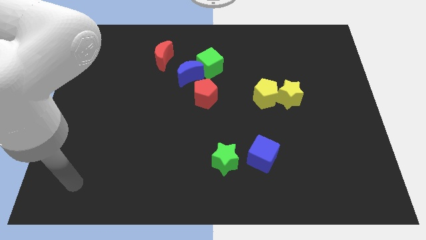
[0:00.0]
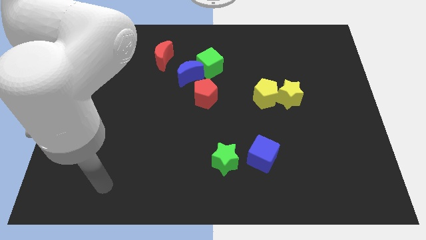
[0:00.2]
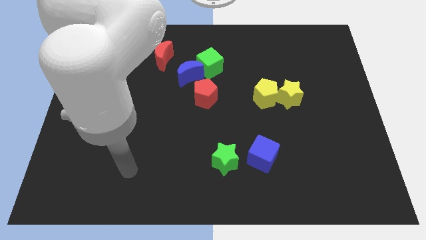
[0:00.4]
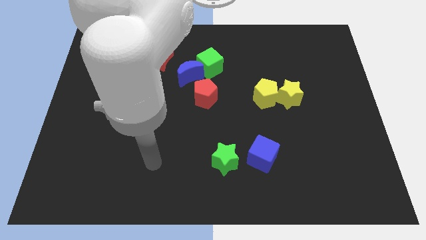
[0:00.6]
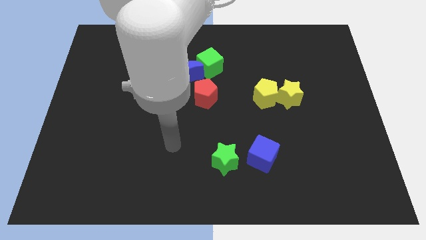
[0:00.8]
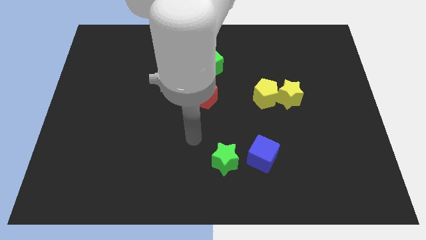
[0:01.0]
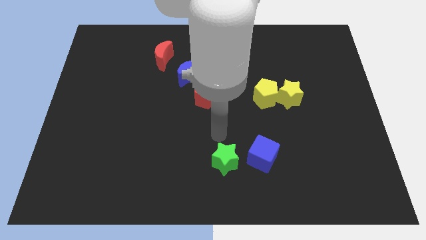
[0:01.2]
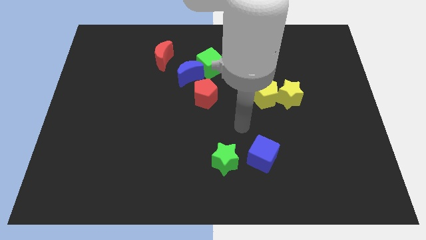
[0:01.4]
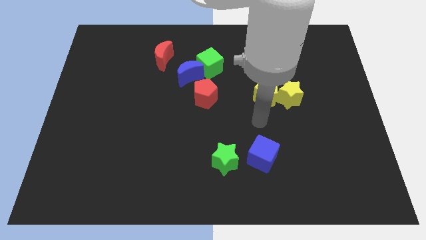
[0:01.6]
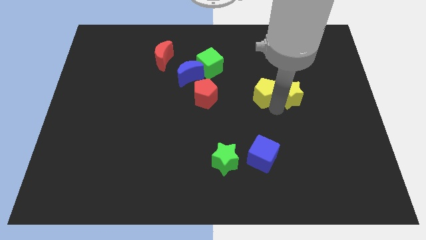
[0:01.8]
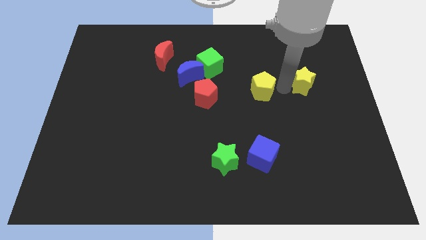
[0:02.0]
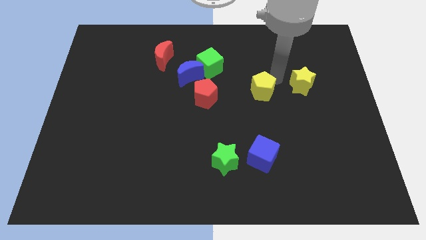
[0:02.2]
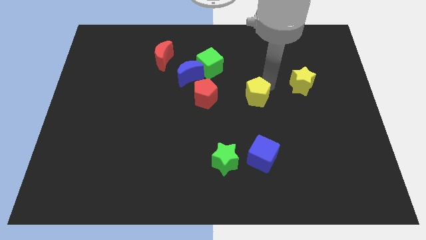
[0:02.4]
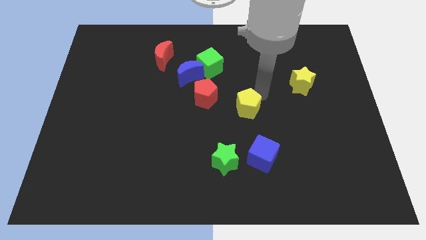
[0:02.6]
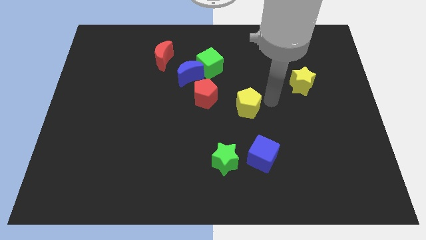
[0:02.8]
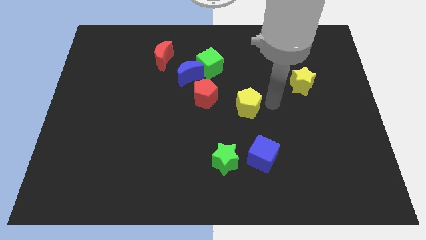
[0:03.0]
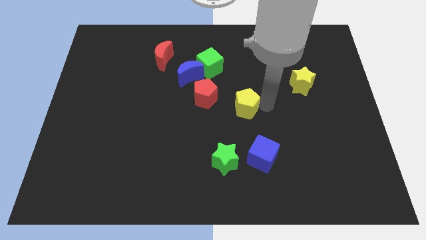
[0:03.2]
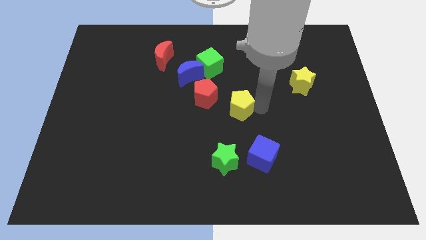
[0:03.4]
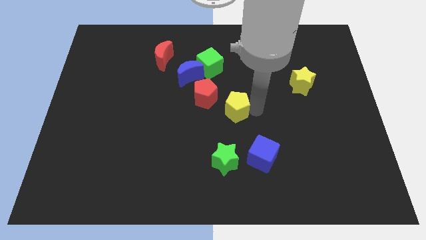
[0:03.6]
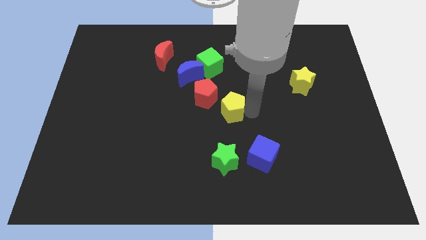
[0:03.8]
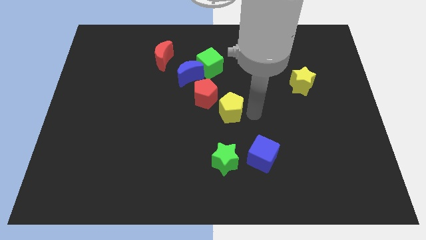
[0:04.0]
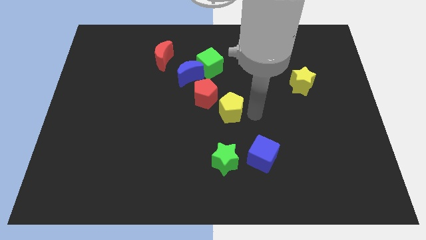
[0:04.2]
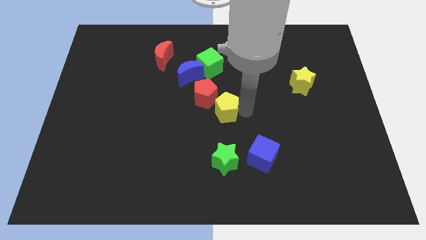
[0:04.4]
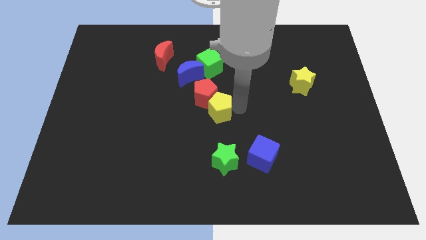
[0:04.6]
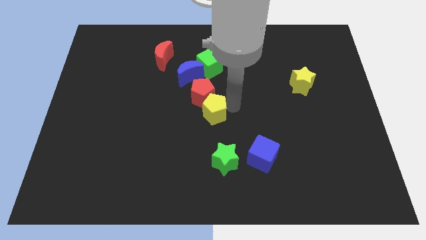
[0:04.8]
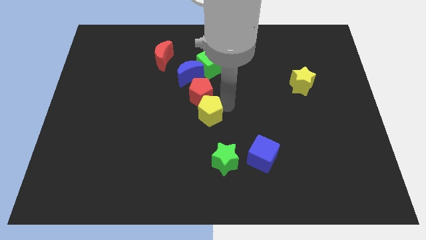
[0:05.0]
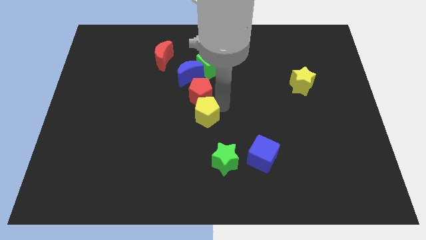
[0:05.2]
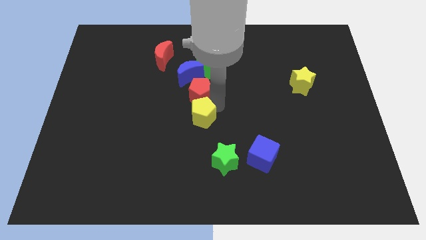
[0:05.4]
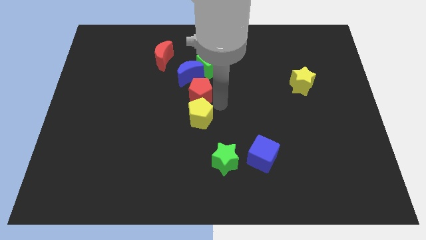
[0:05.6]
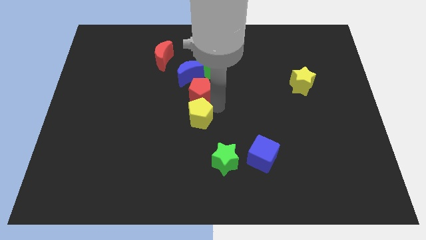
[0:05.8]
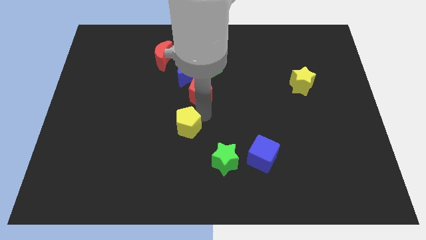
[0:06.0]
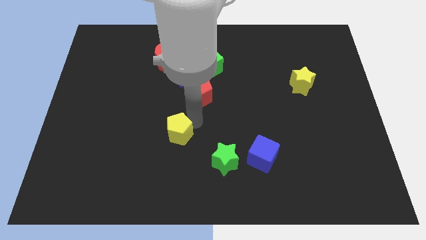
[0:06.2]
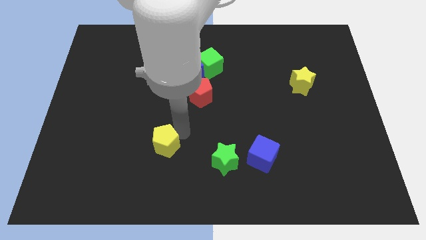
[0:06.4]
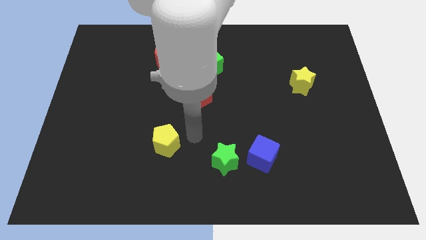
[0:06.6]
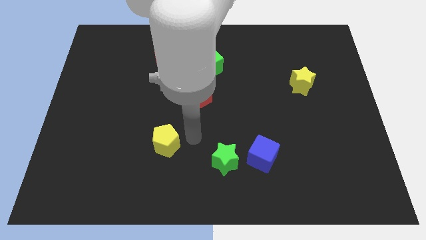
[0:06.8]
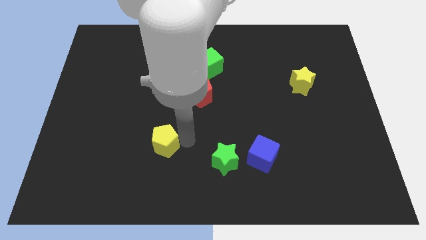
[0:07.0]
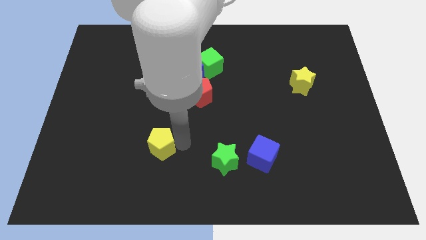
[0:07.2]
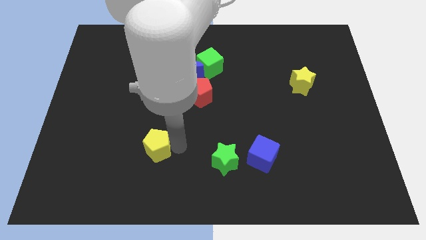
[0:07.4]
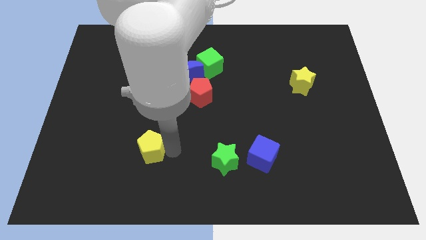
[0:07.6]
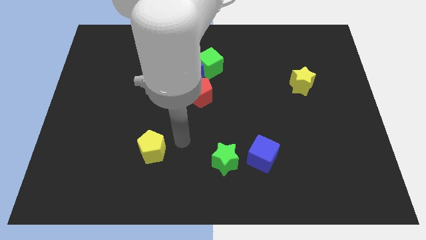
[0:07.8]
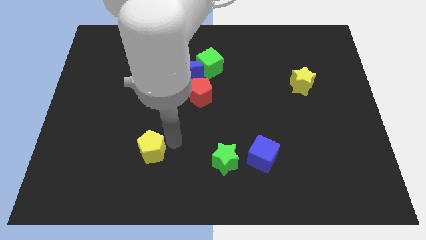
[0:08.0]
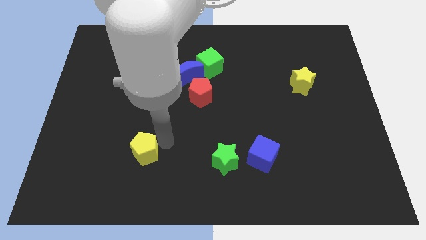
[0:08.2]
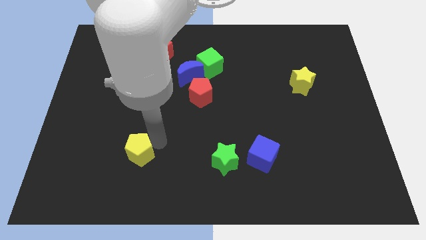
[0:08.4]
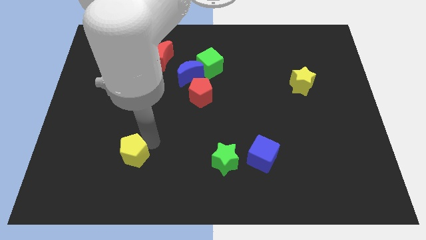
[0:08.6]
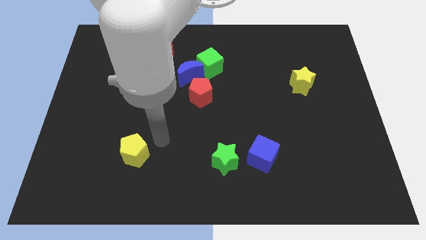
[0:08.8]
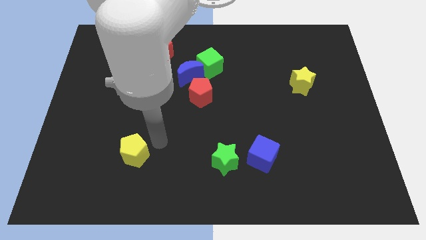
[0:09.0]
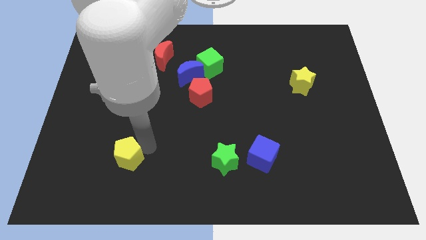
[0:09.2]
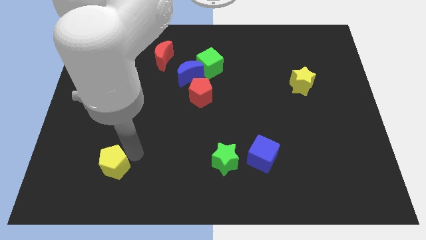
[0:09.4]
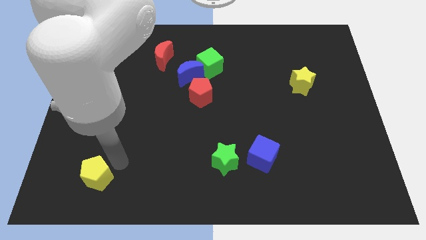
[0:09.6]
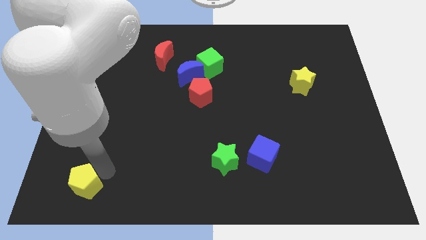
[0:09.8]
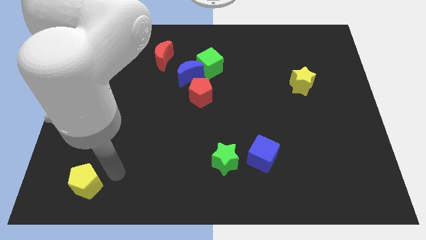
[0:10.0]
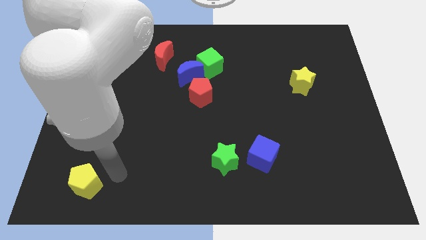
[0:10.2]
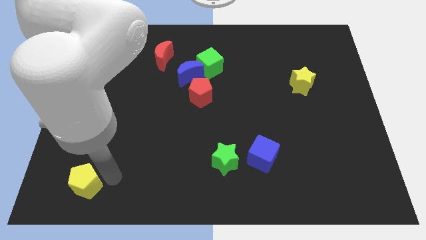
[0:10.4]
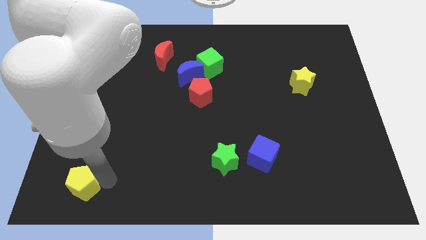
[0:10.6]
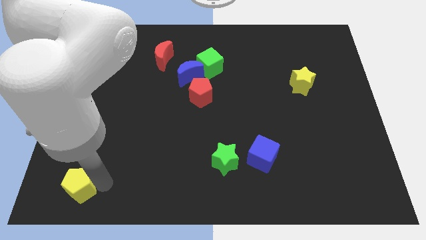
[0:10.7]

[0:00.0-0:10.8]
put the yellow pentagon to the lower left corner
